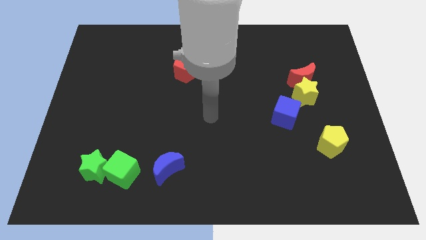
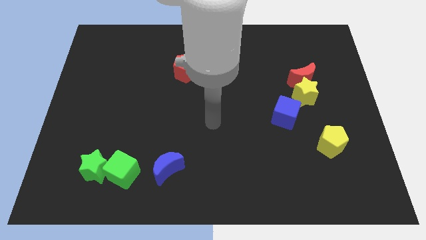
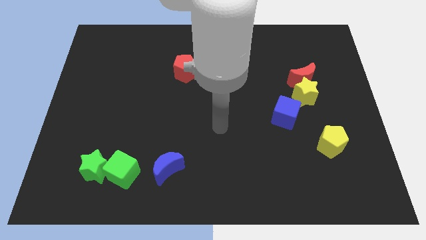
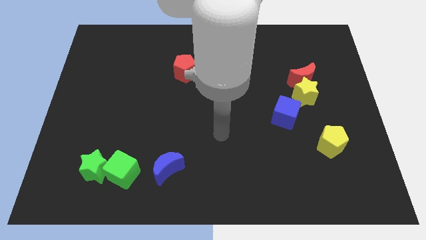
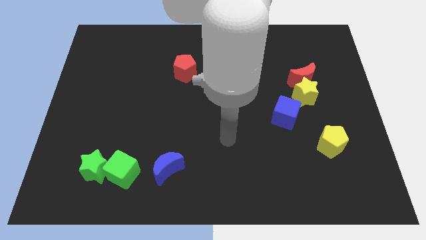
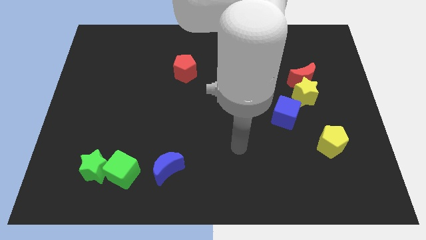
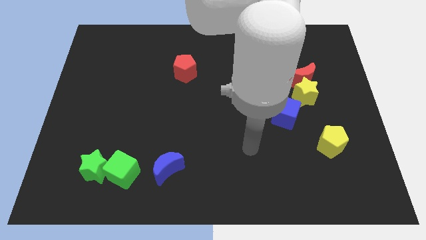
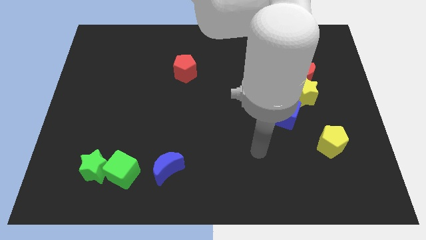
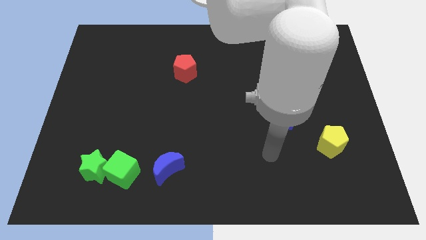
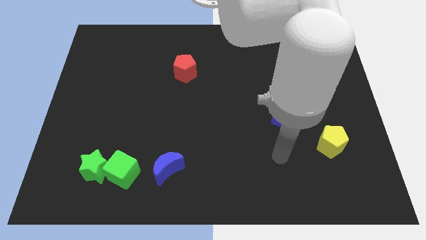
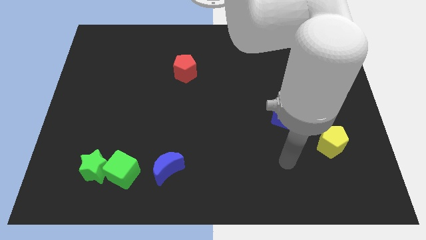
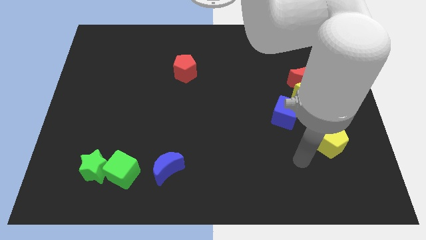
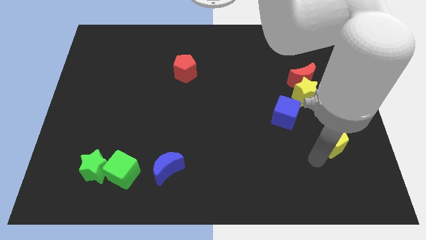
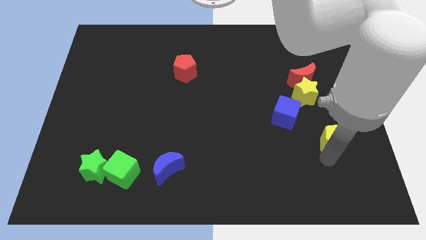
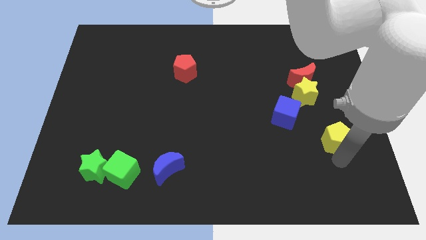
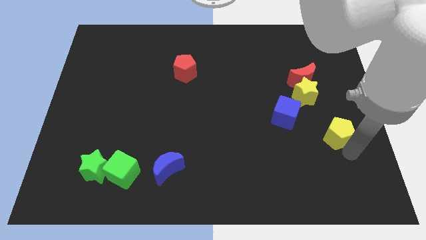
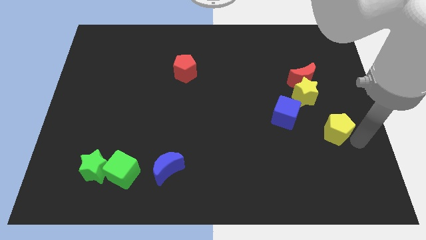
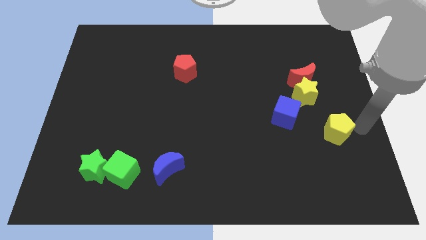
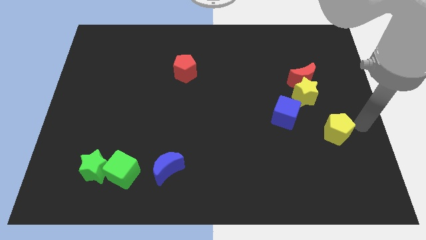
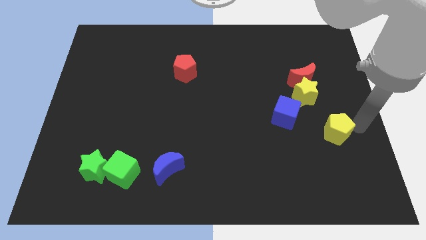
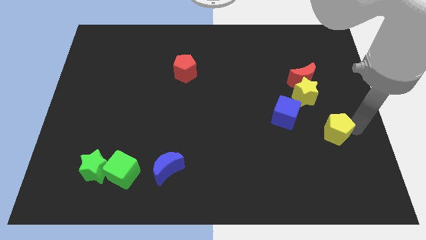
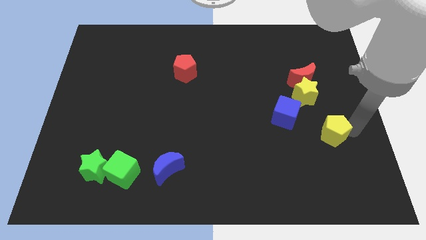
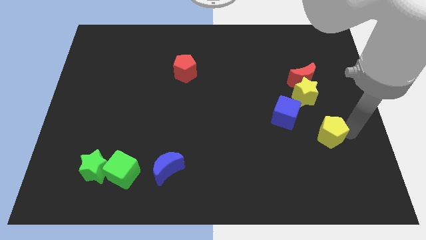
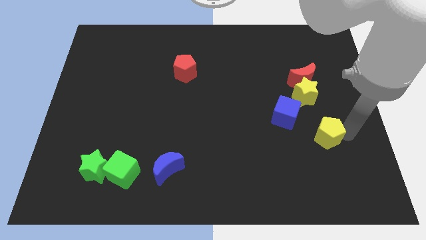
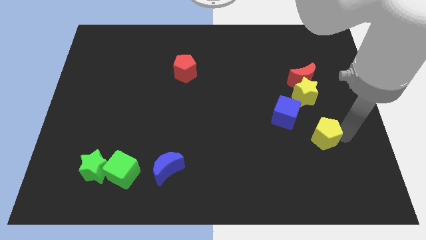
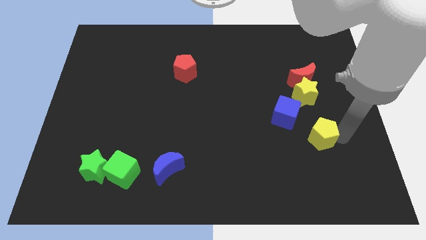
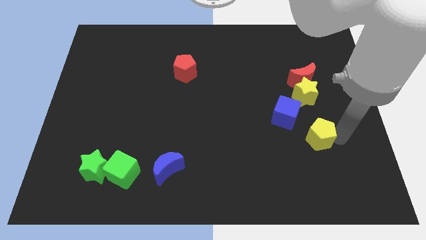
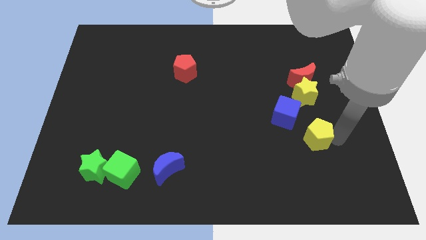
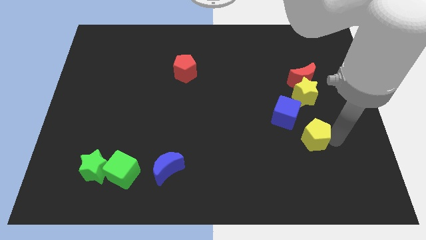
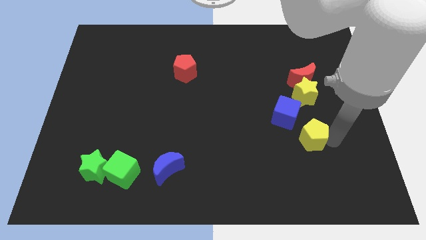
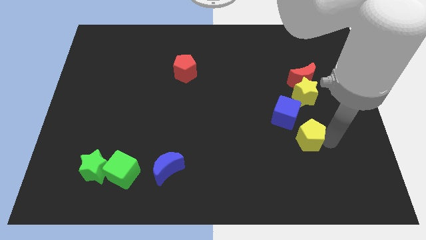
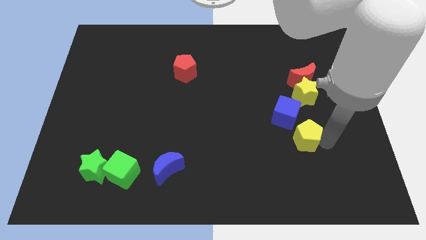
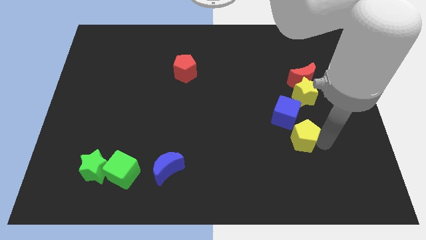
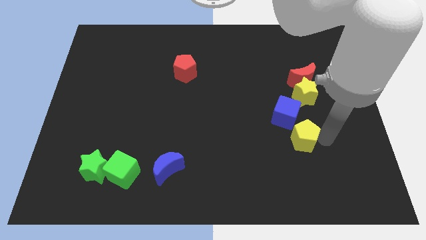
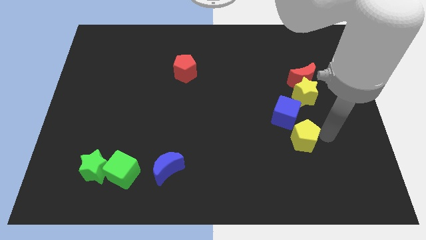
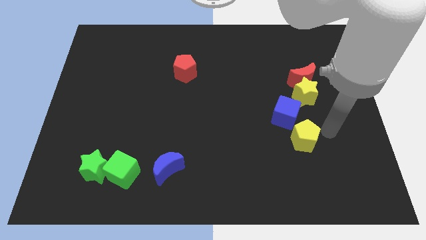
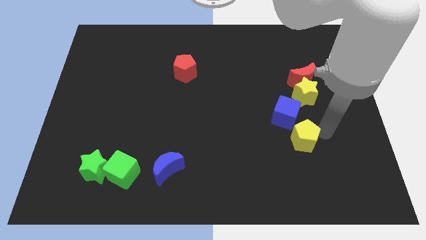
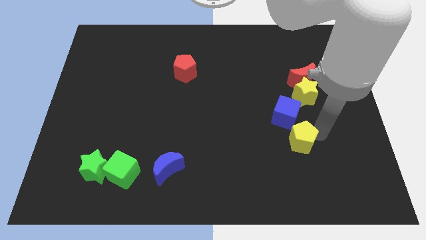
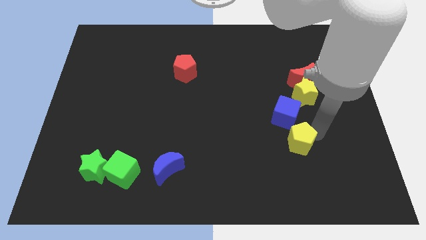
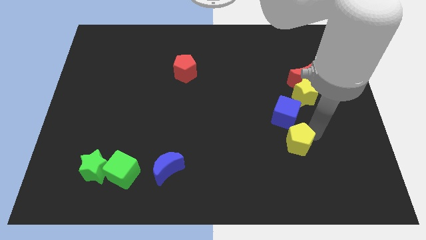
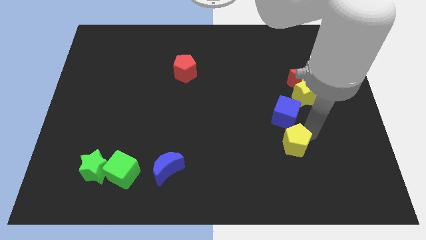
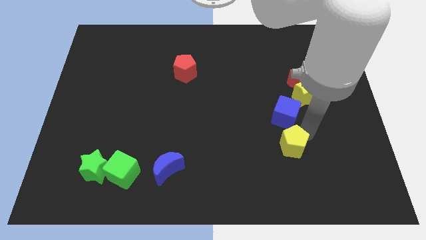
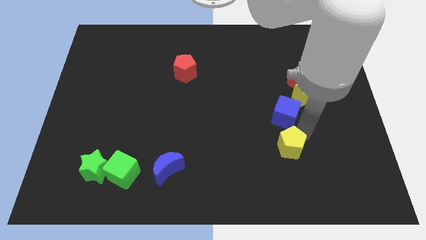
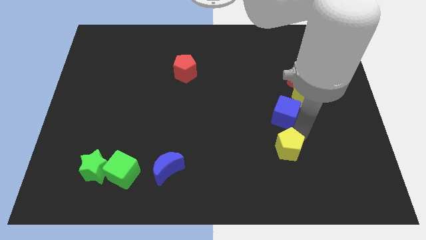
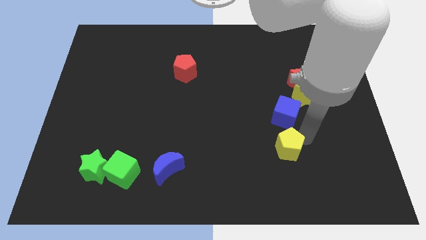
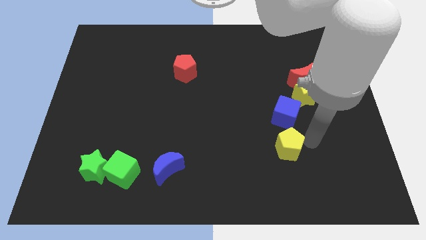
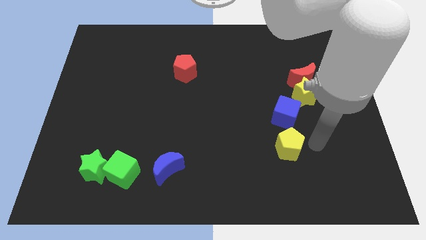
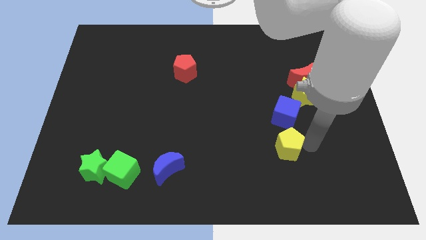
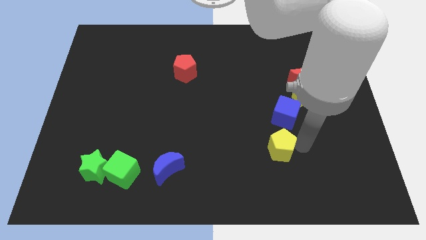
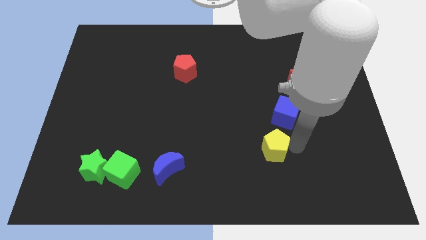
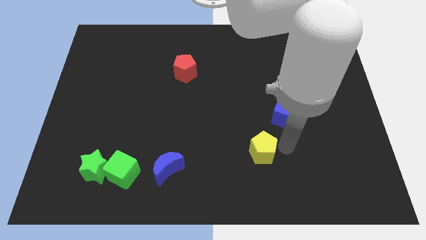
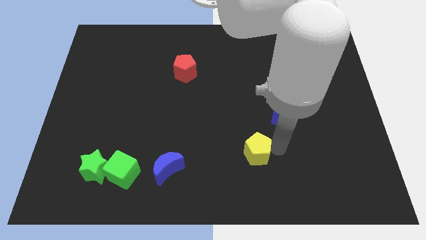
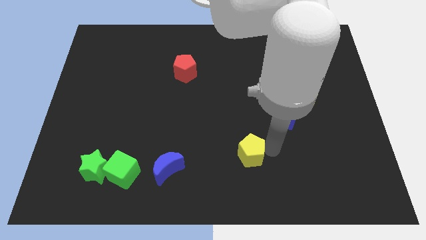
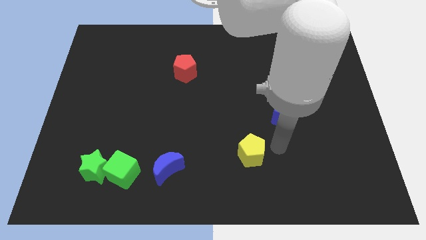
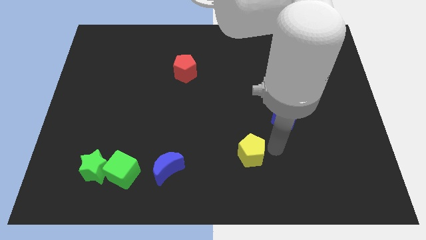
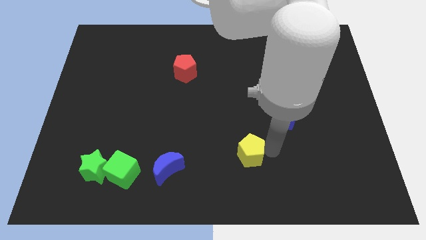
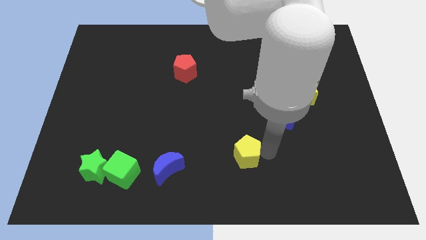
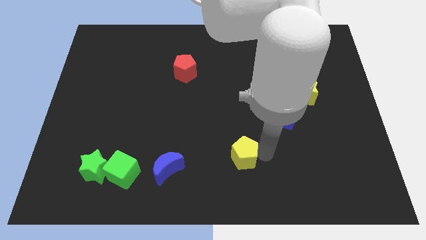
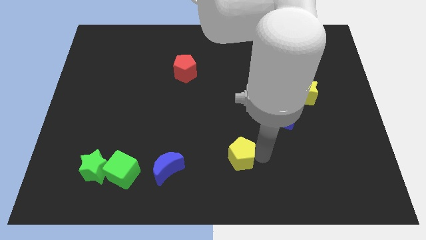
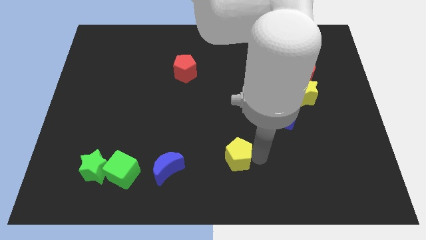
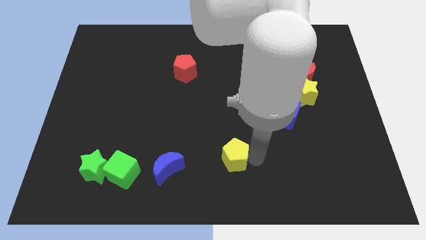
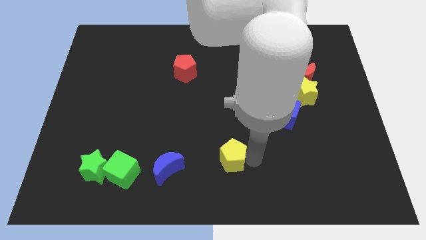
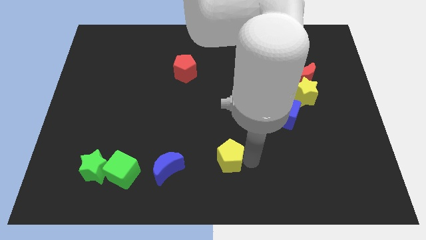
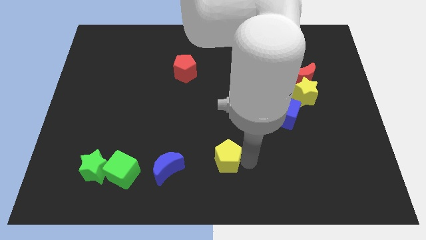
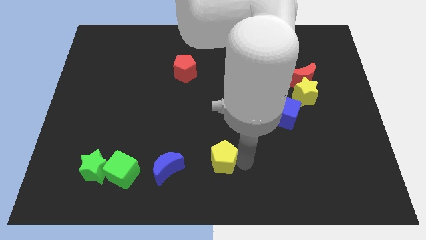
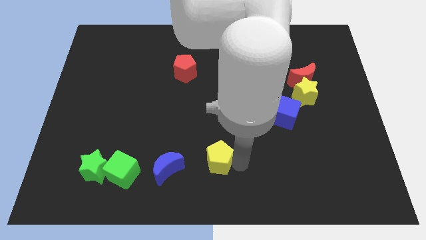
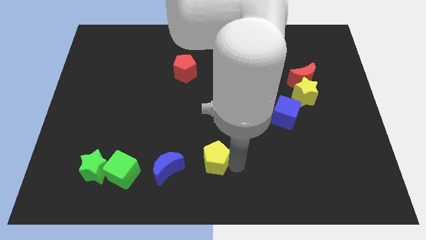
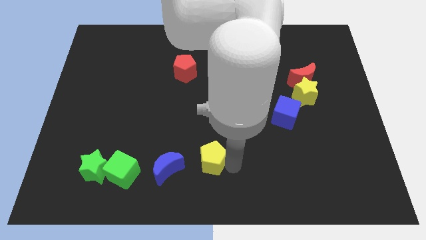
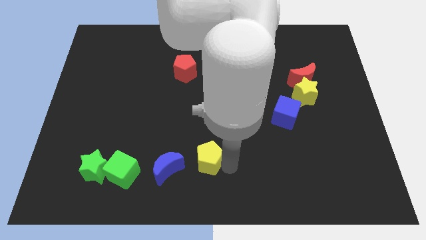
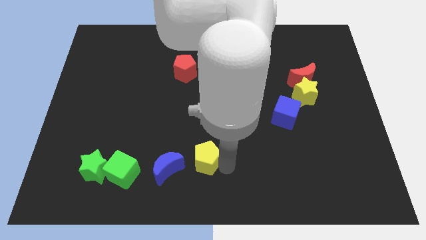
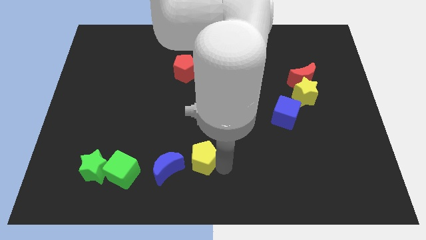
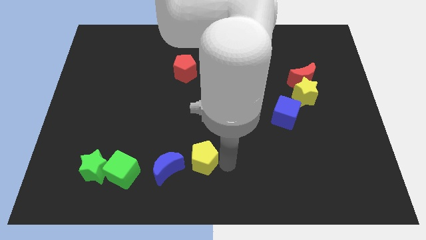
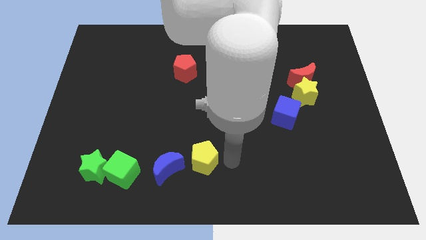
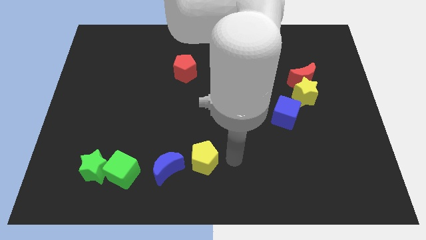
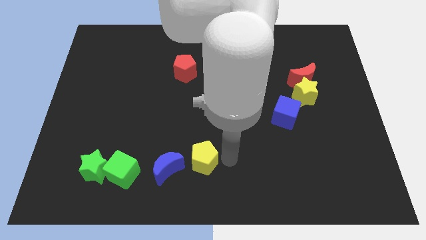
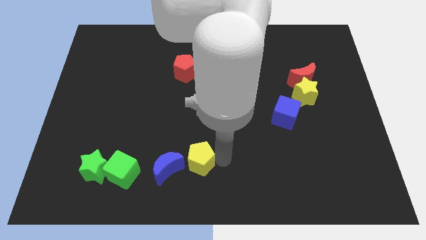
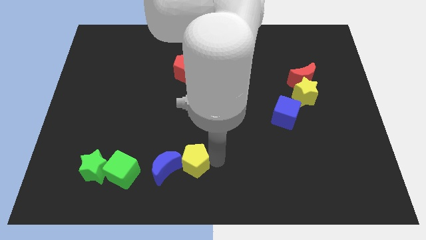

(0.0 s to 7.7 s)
put the yellow pentagon next to the blue moon
